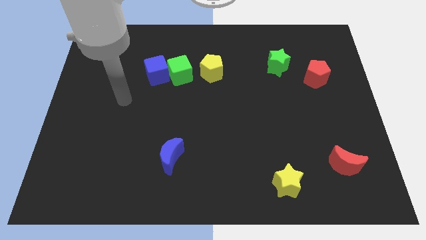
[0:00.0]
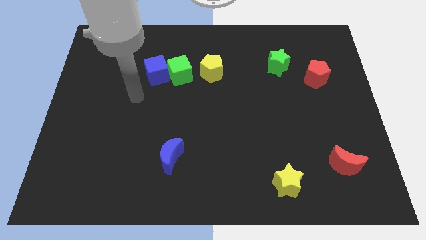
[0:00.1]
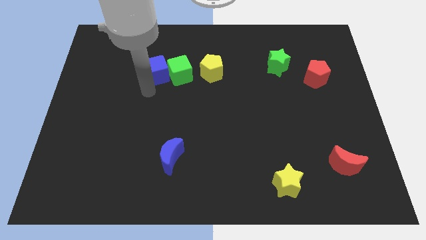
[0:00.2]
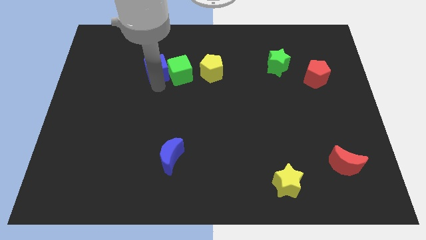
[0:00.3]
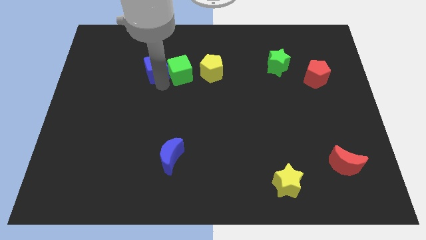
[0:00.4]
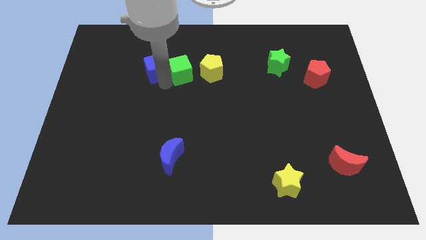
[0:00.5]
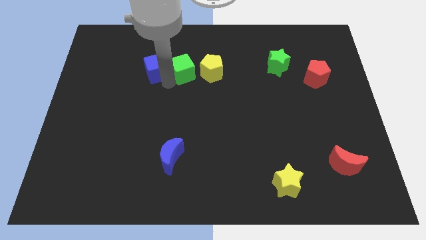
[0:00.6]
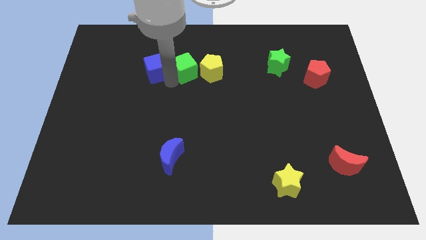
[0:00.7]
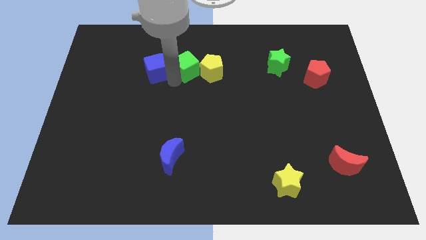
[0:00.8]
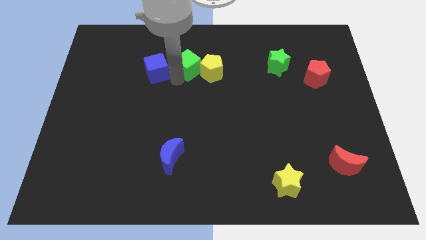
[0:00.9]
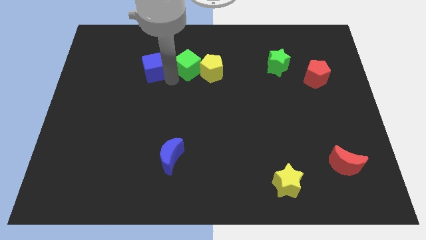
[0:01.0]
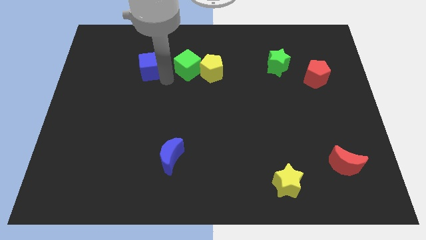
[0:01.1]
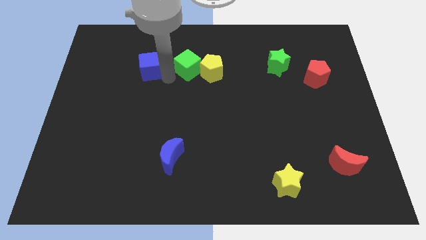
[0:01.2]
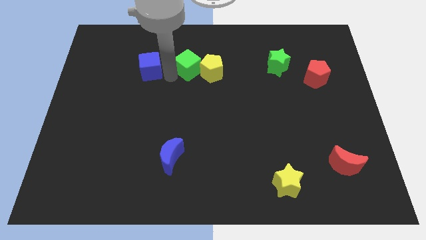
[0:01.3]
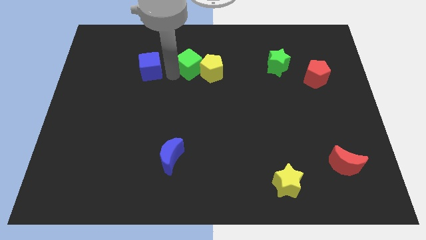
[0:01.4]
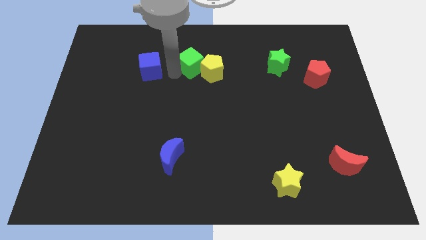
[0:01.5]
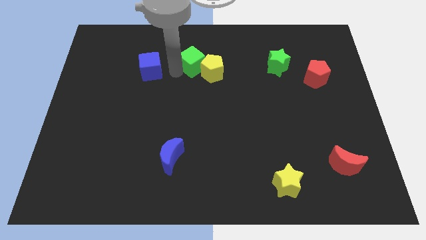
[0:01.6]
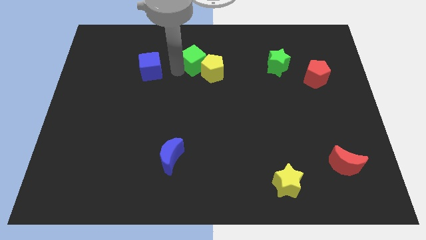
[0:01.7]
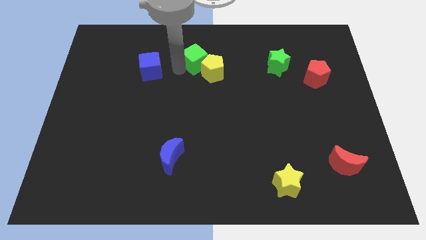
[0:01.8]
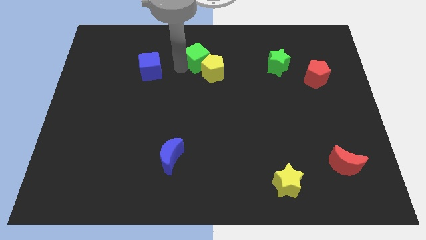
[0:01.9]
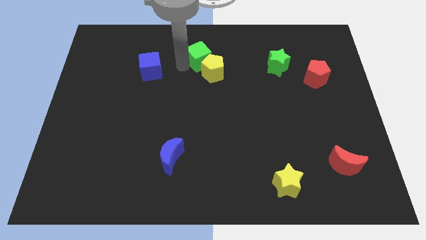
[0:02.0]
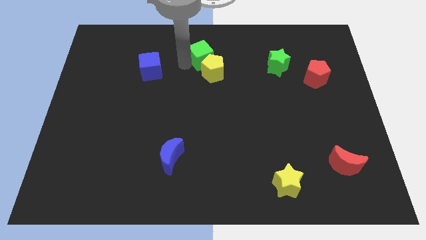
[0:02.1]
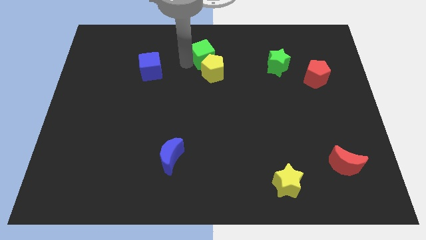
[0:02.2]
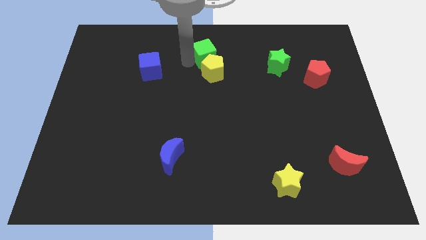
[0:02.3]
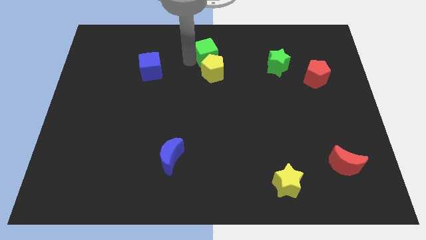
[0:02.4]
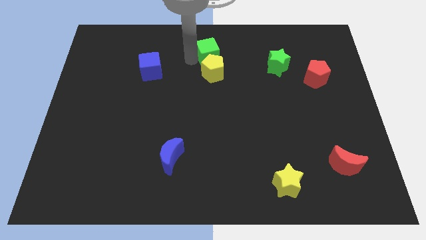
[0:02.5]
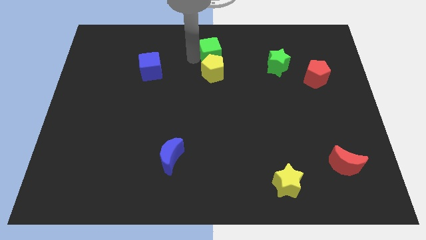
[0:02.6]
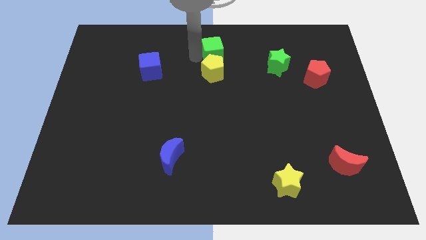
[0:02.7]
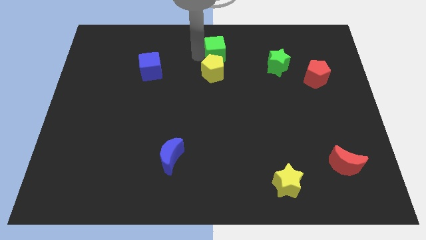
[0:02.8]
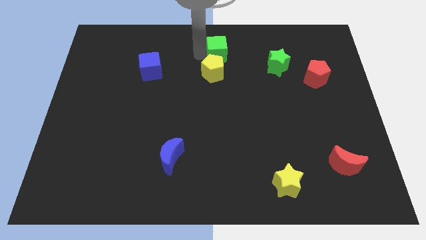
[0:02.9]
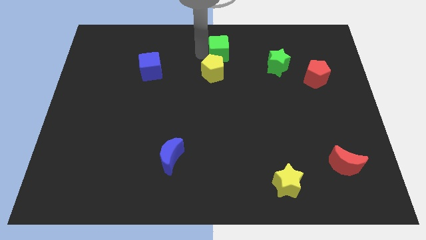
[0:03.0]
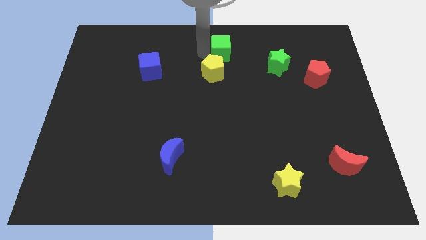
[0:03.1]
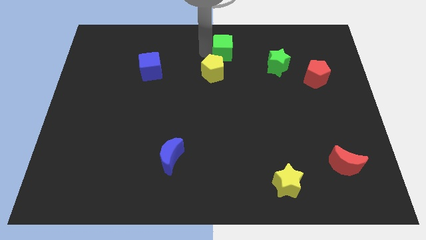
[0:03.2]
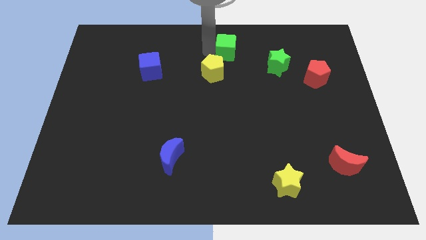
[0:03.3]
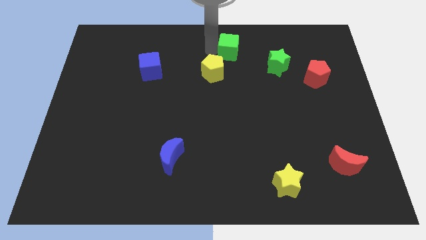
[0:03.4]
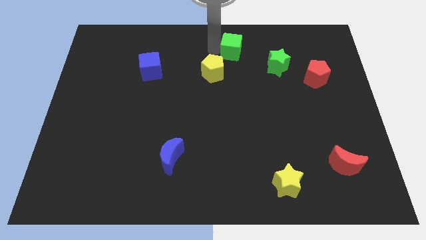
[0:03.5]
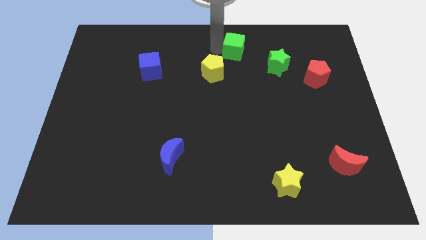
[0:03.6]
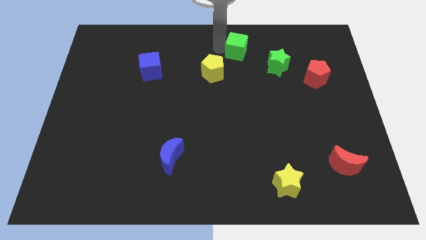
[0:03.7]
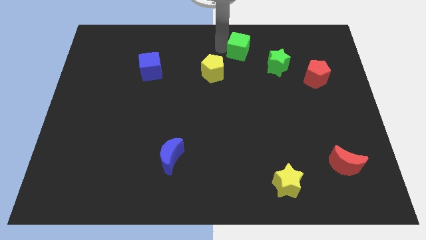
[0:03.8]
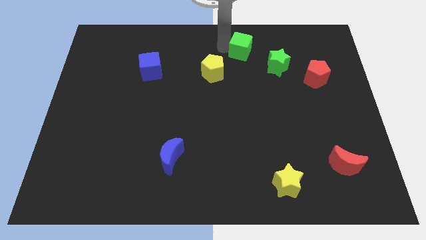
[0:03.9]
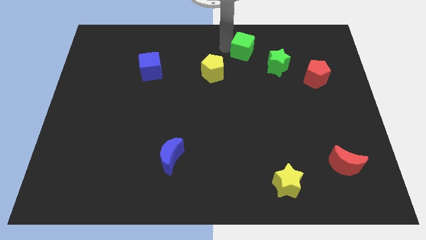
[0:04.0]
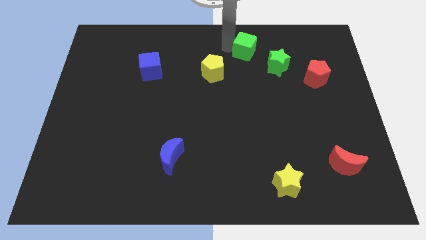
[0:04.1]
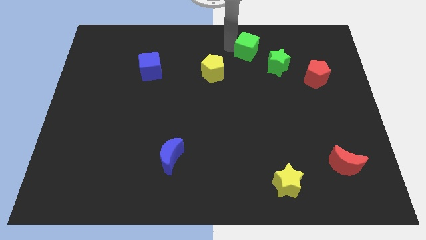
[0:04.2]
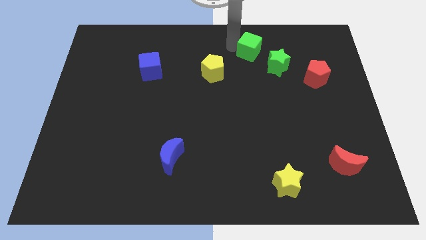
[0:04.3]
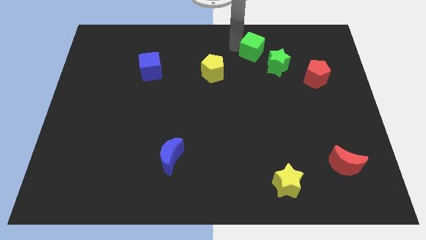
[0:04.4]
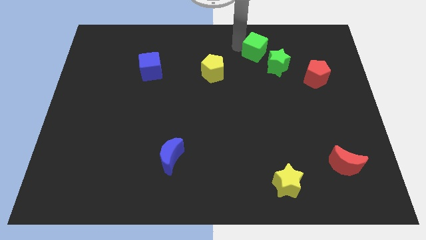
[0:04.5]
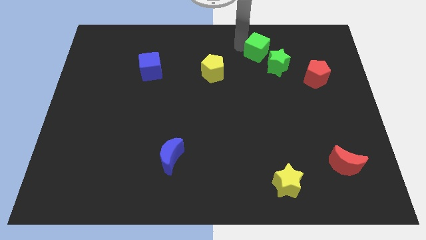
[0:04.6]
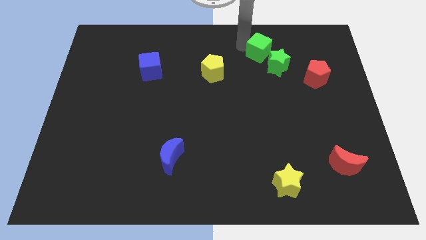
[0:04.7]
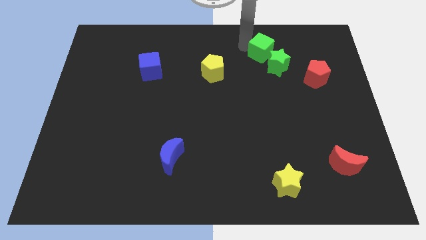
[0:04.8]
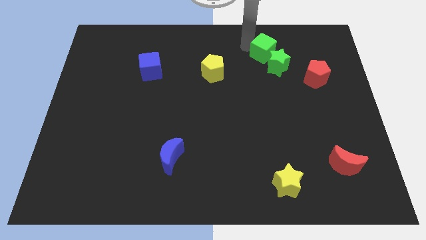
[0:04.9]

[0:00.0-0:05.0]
put the green cube towards the green star

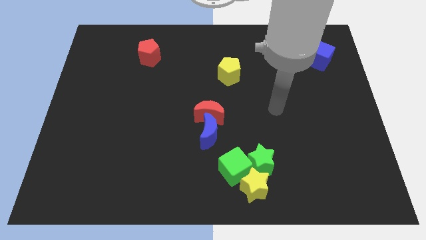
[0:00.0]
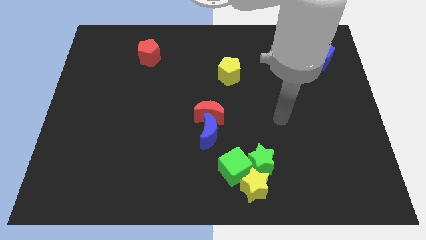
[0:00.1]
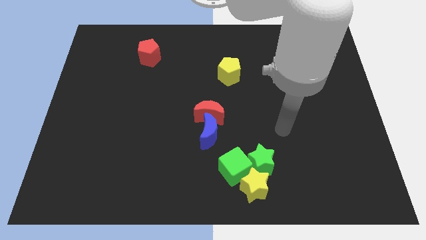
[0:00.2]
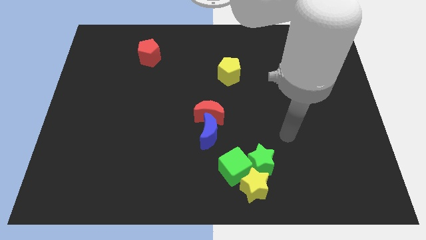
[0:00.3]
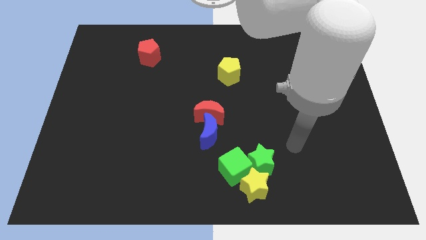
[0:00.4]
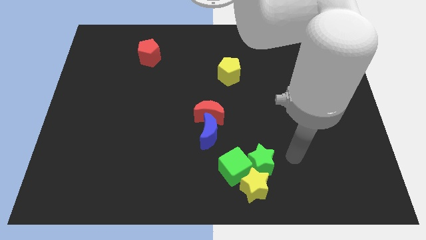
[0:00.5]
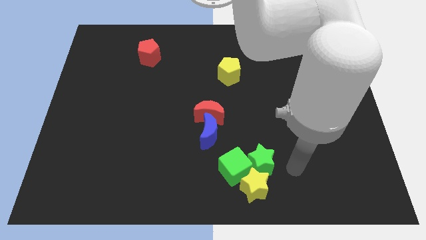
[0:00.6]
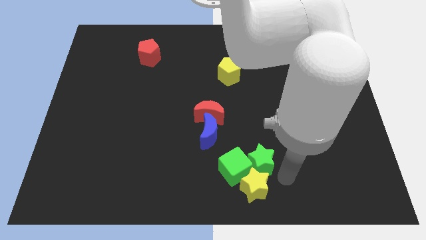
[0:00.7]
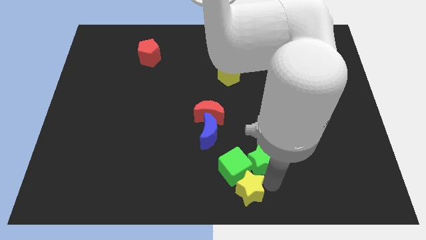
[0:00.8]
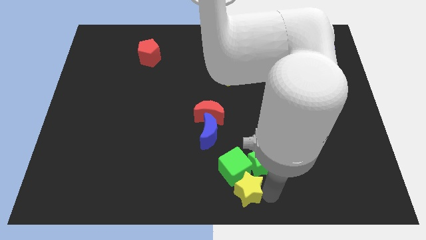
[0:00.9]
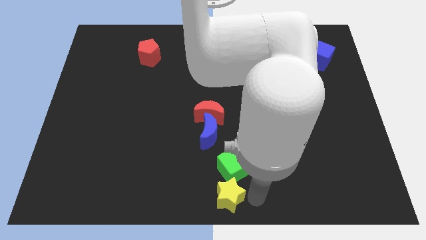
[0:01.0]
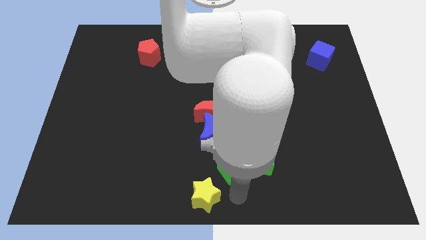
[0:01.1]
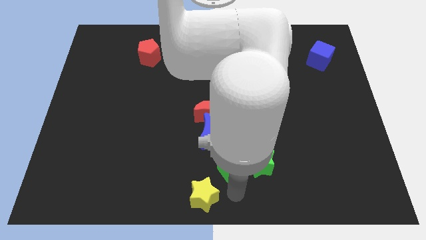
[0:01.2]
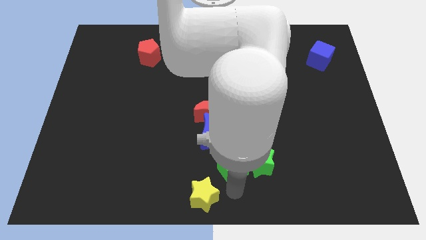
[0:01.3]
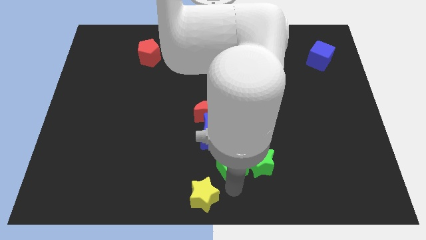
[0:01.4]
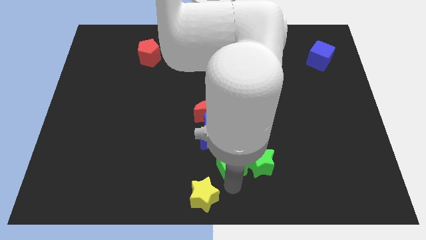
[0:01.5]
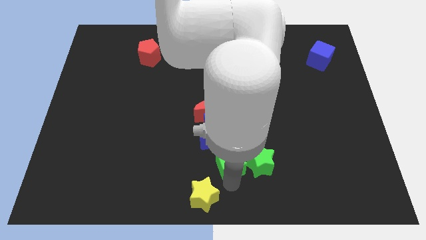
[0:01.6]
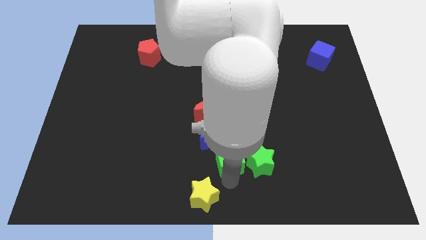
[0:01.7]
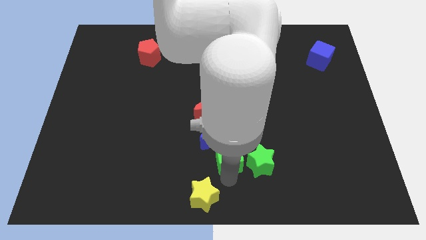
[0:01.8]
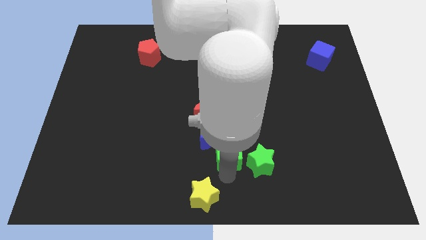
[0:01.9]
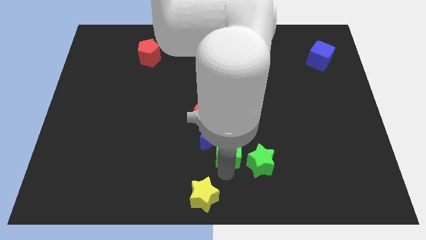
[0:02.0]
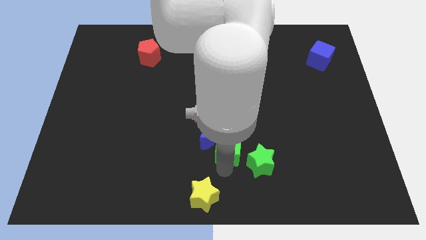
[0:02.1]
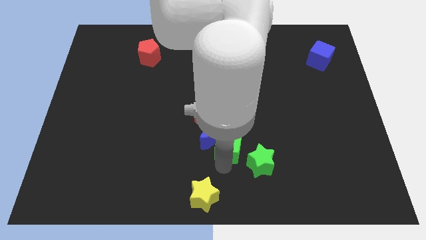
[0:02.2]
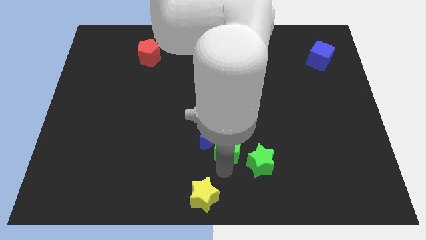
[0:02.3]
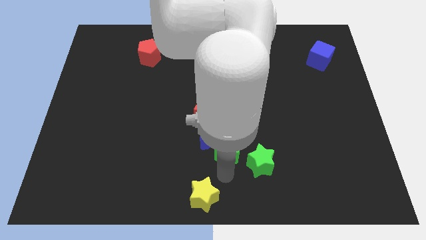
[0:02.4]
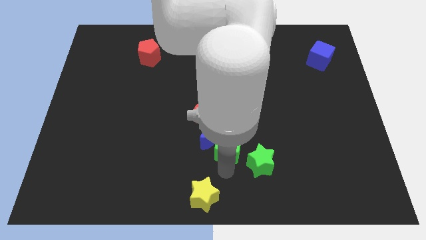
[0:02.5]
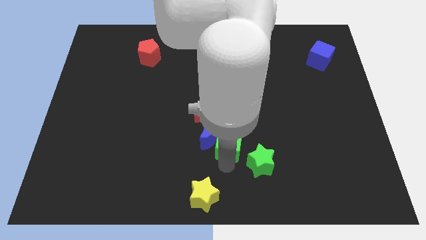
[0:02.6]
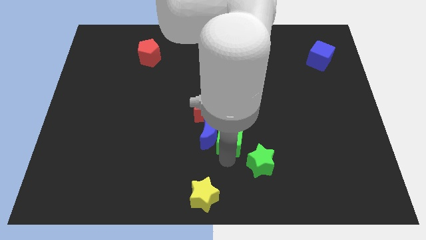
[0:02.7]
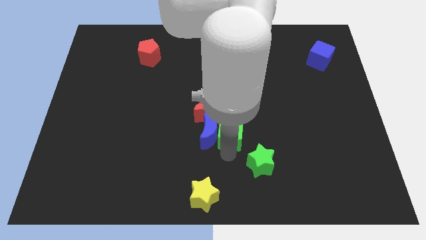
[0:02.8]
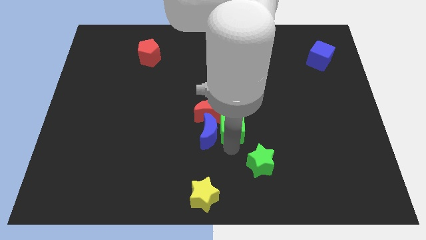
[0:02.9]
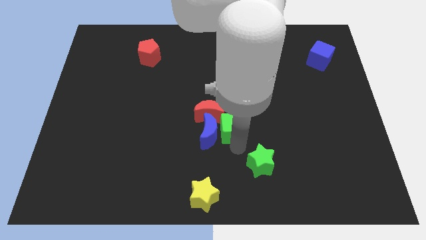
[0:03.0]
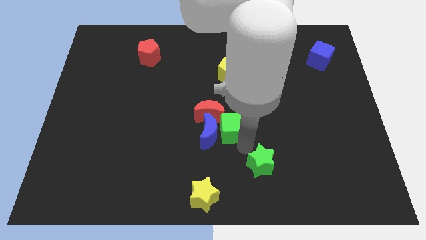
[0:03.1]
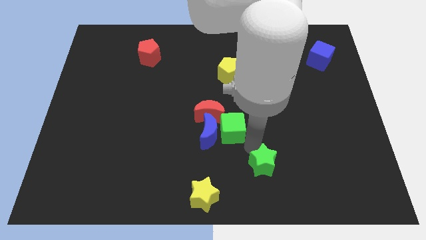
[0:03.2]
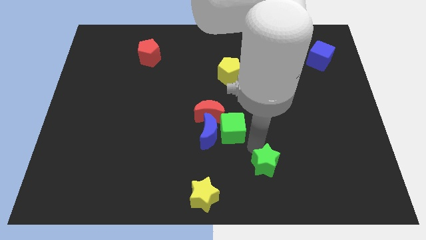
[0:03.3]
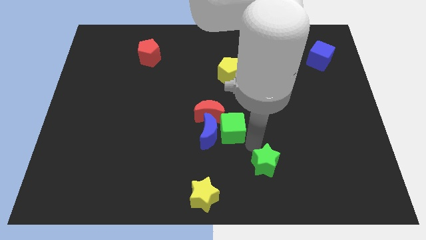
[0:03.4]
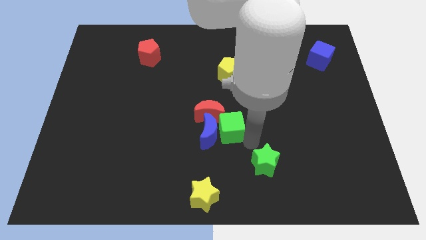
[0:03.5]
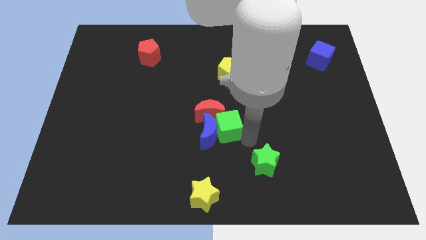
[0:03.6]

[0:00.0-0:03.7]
move the green cube next to the red moon
